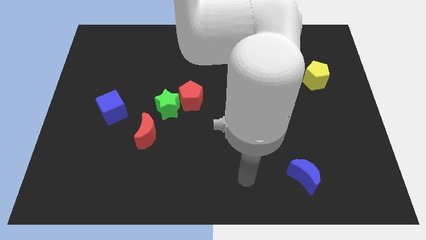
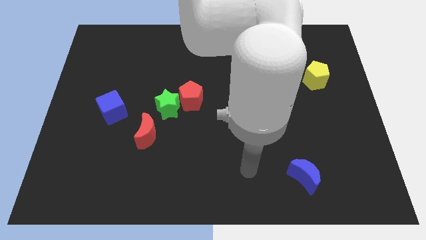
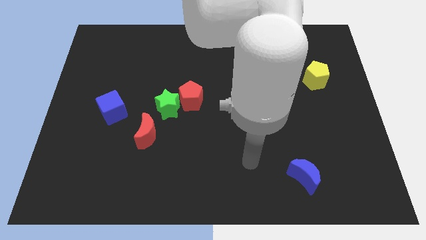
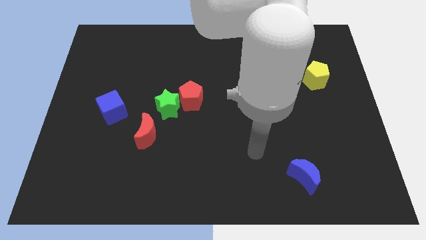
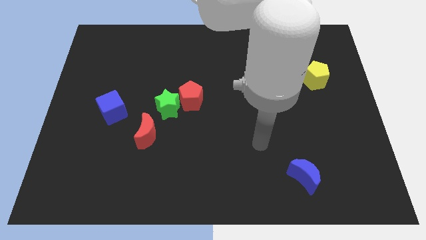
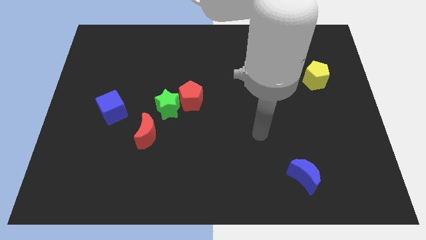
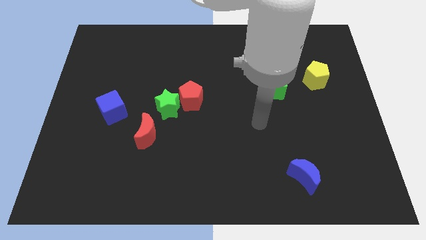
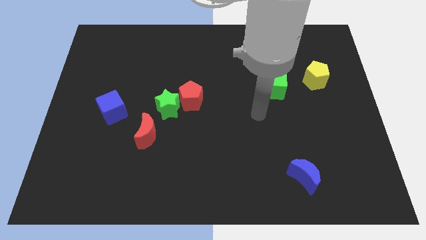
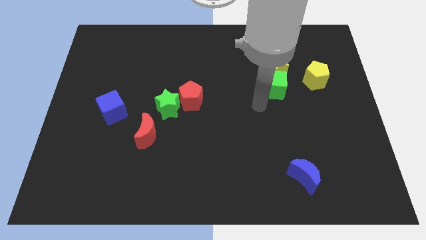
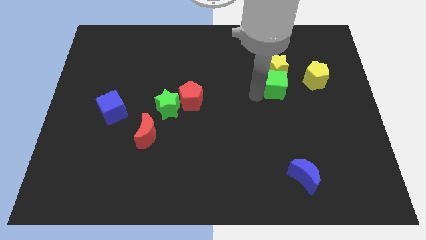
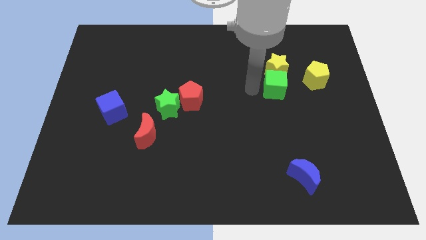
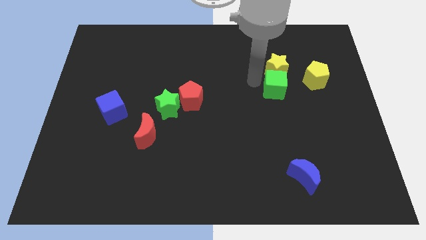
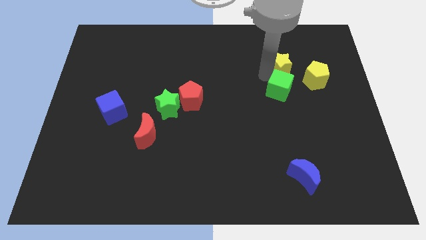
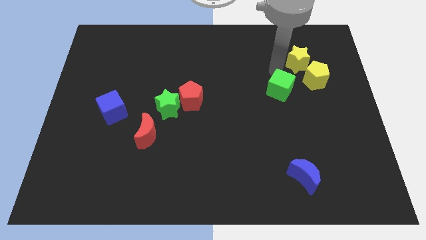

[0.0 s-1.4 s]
pull the green cube apart from the yellow star

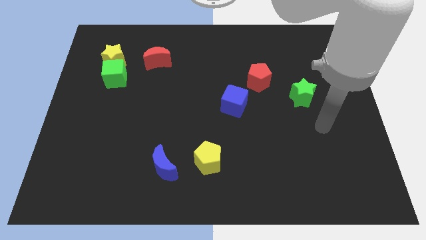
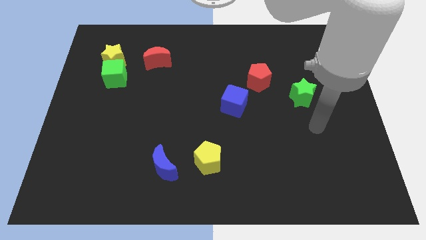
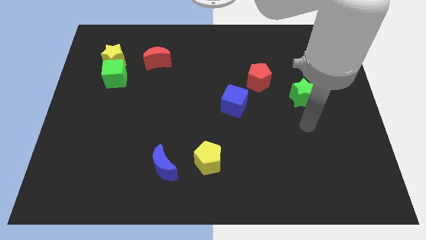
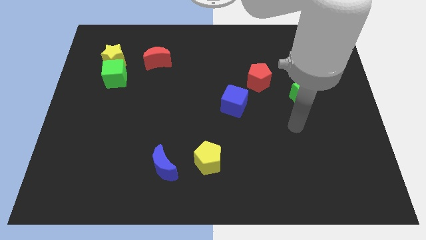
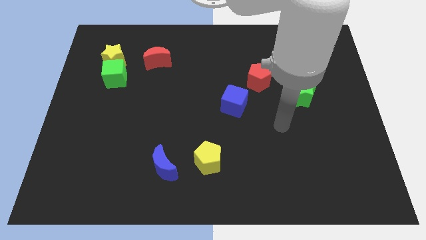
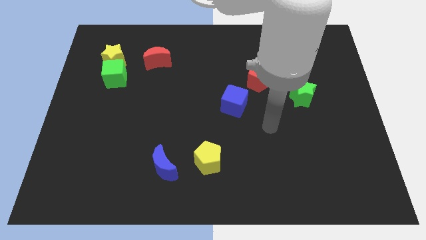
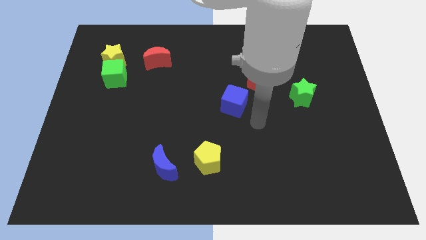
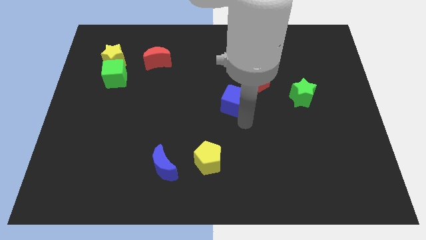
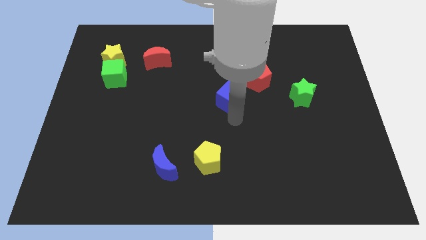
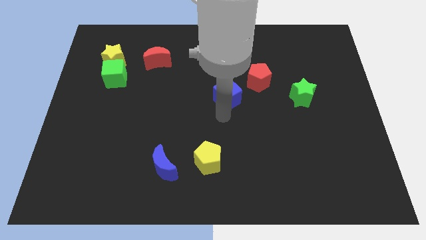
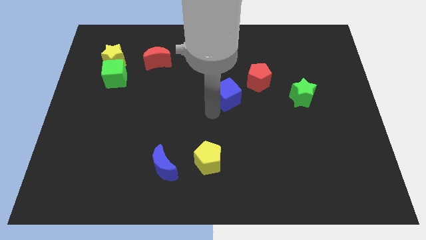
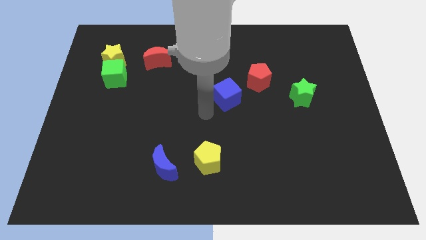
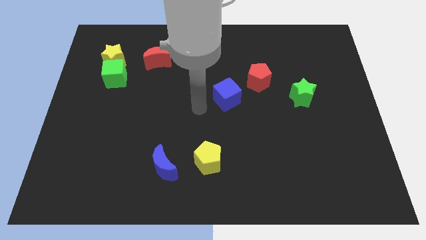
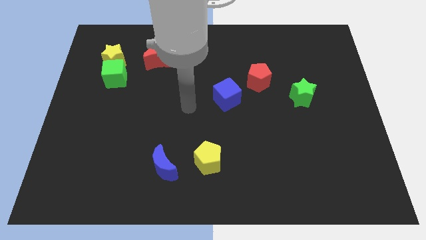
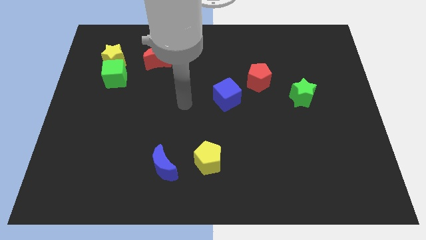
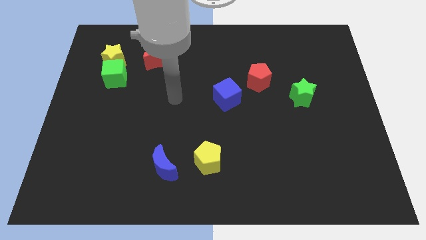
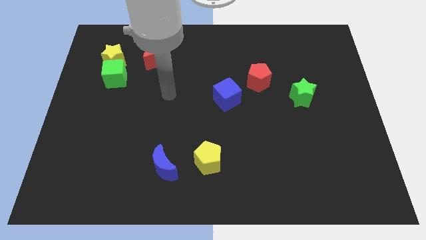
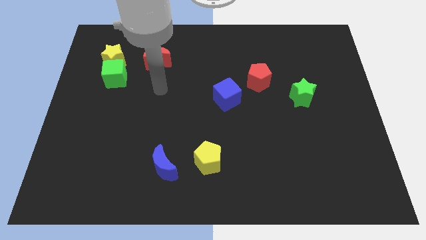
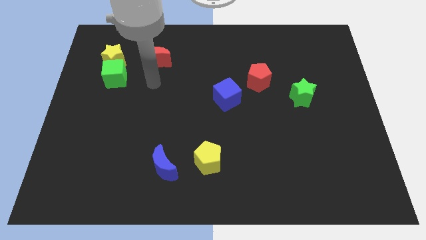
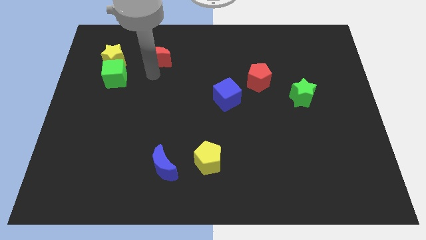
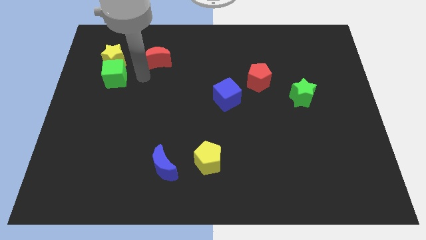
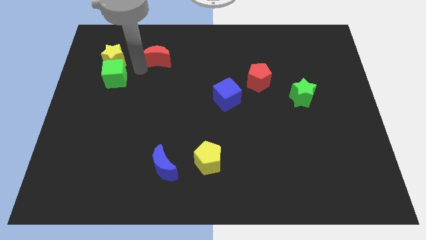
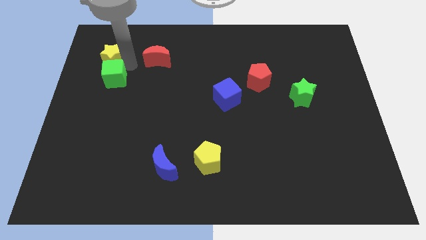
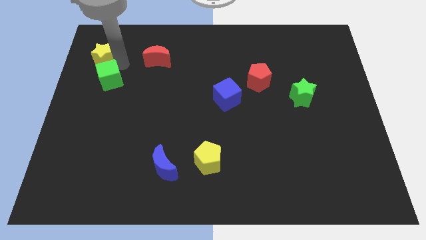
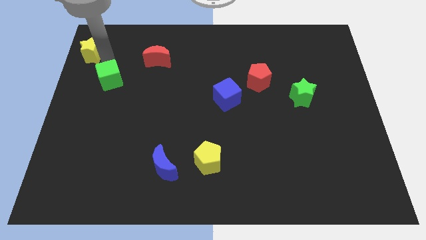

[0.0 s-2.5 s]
separate the green cube from the yellow star

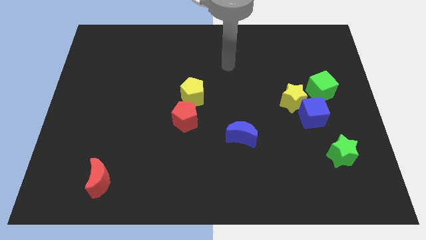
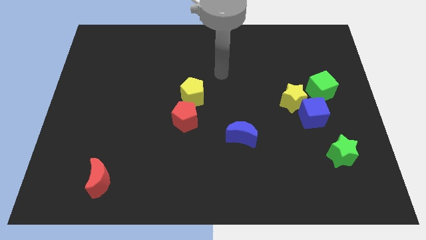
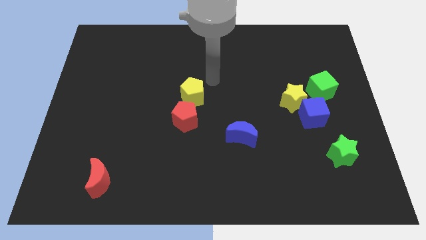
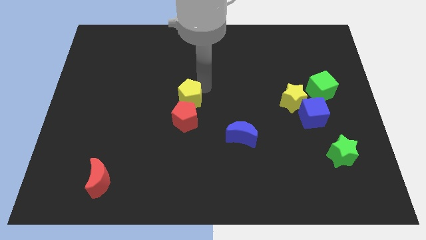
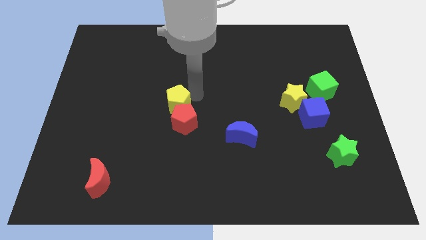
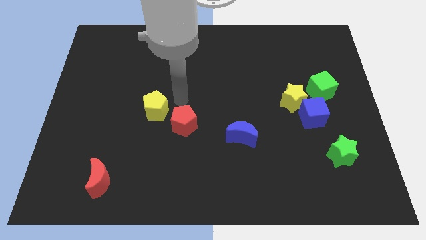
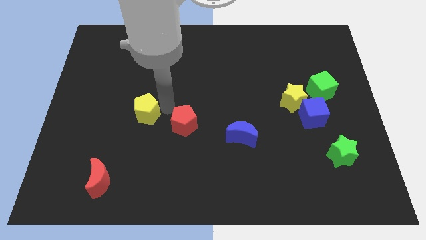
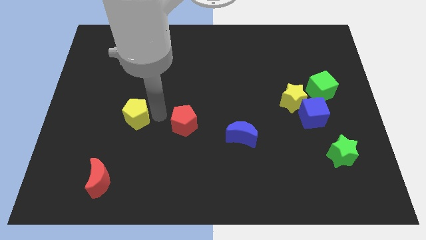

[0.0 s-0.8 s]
separate the red pentagon from the yellow pentagon

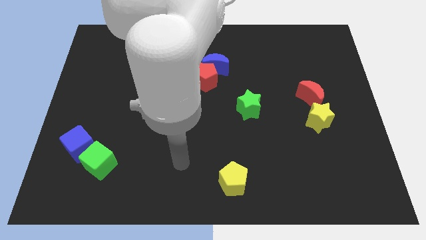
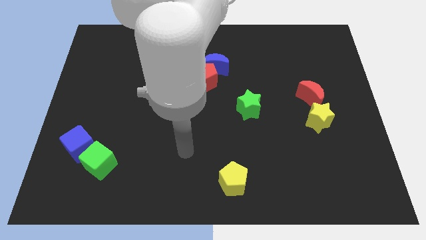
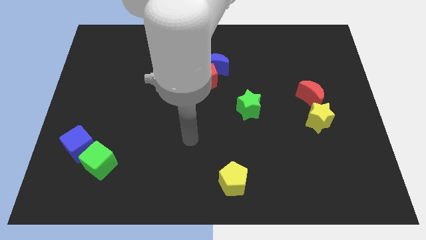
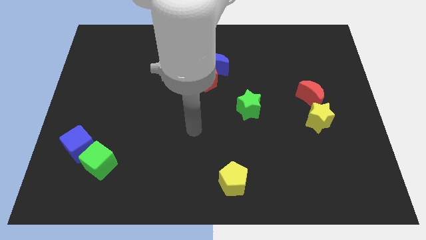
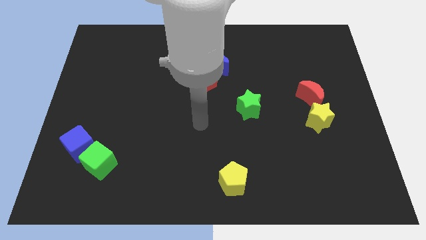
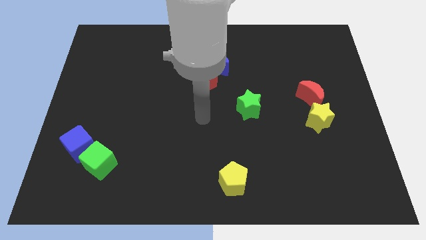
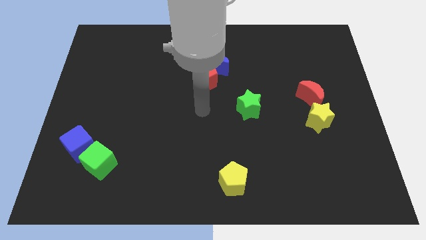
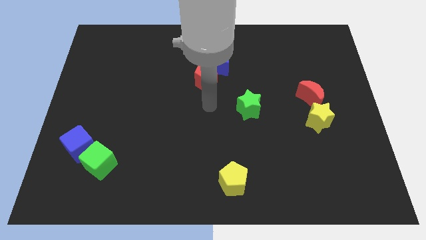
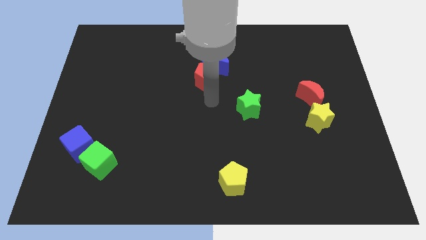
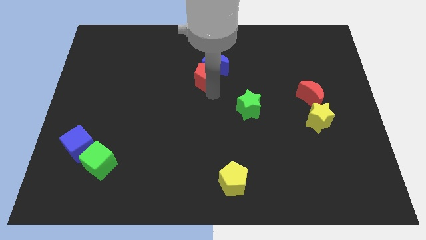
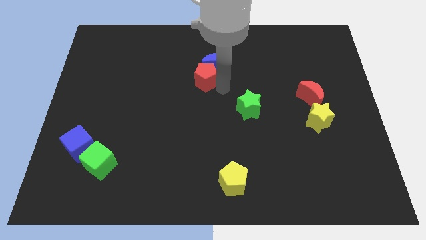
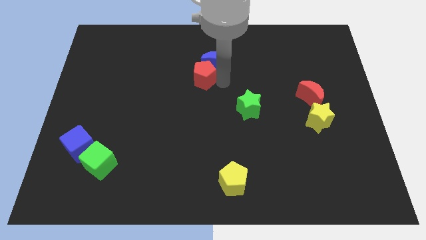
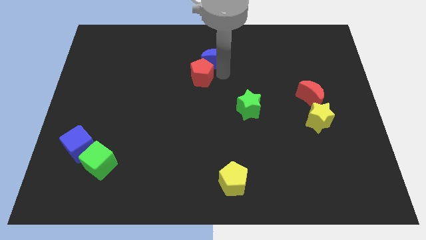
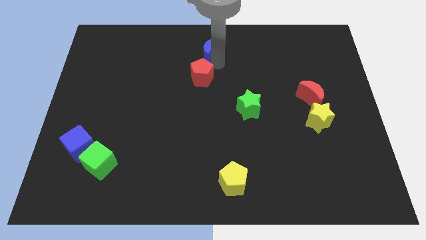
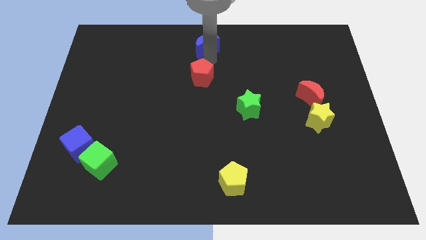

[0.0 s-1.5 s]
pull the red pentagon apart from the blue moon

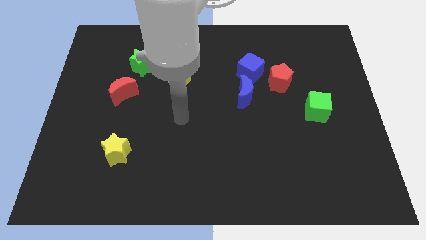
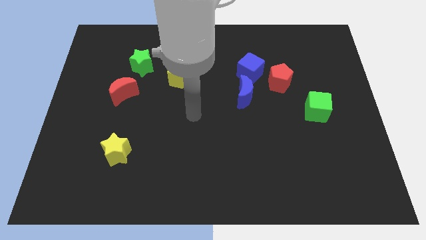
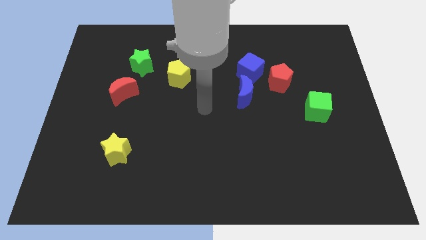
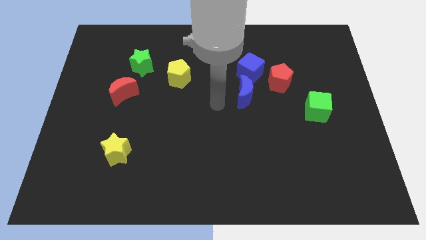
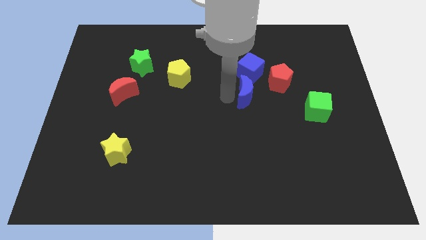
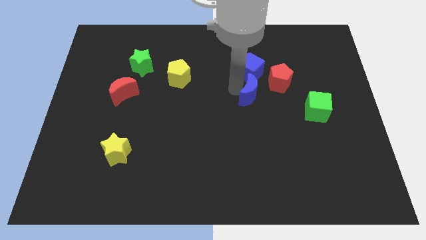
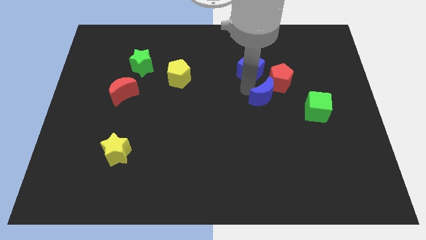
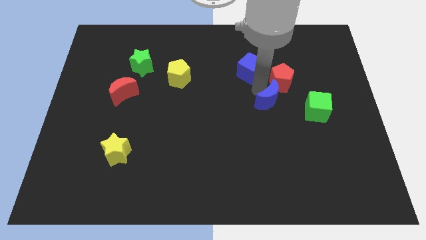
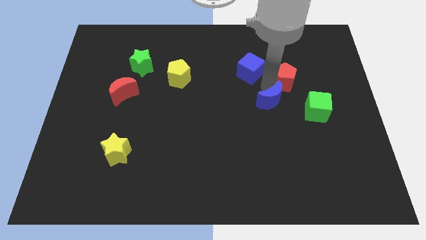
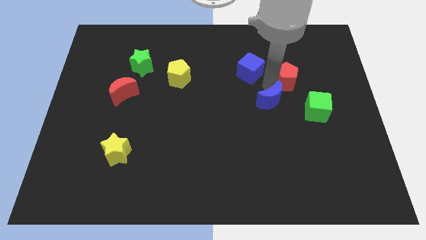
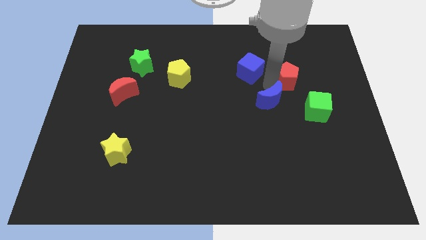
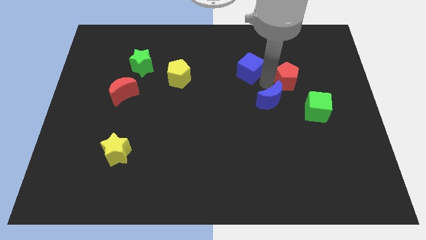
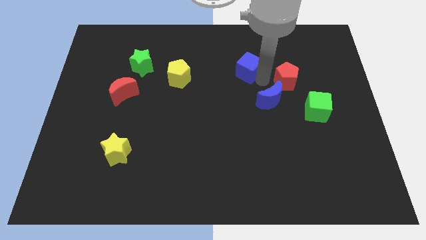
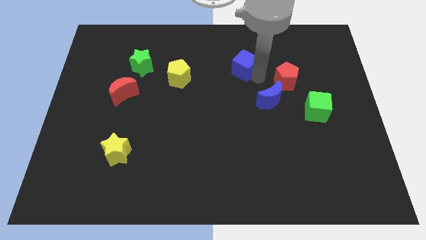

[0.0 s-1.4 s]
pull the blue cube apart from the red pentagon and blue moon

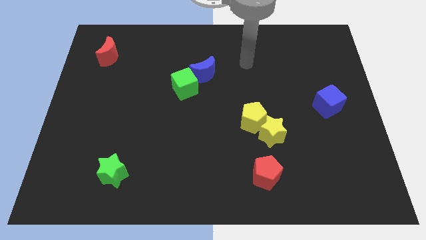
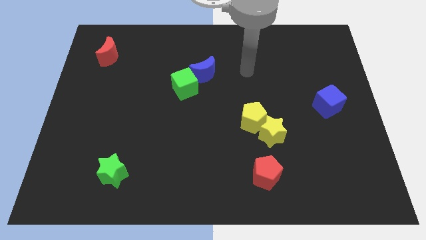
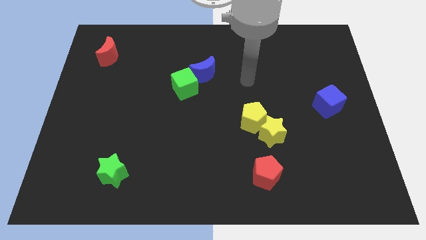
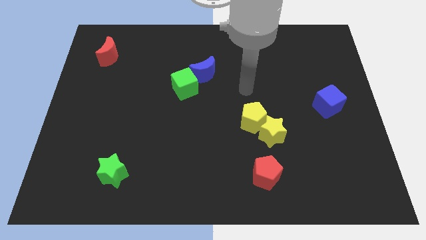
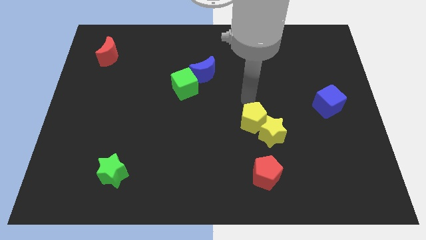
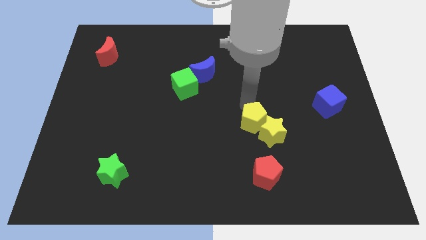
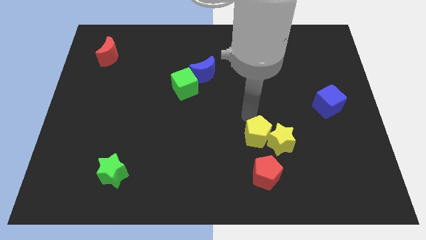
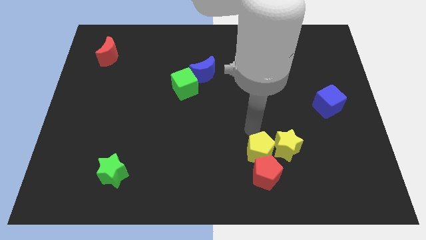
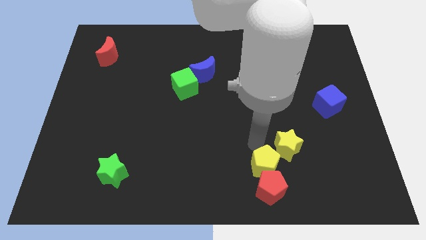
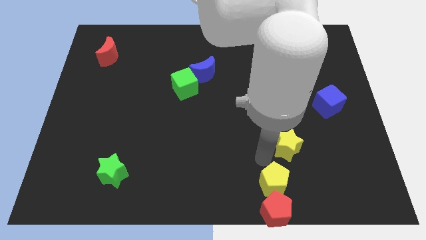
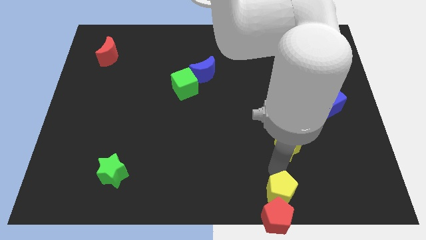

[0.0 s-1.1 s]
move the yellow star away from the yellow pentagon

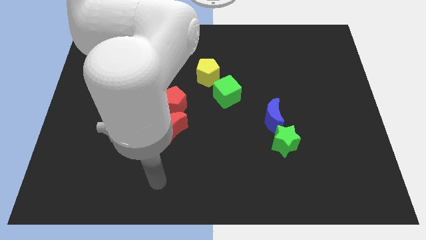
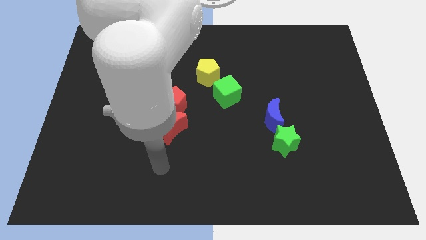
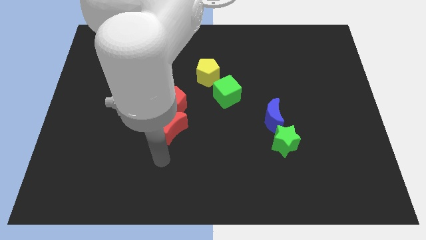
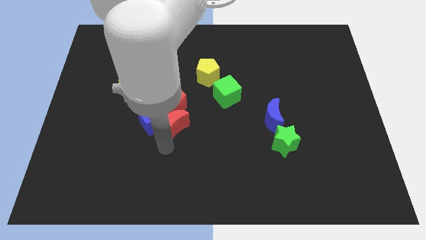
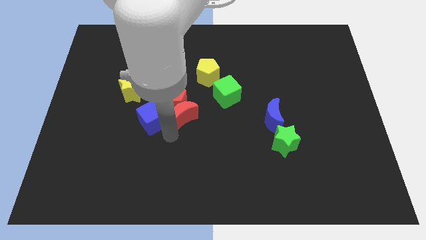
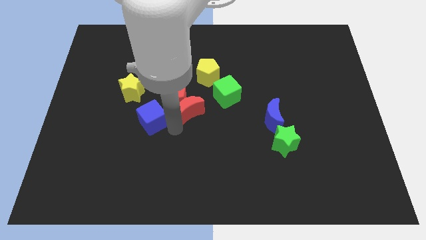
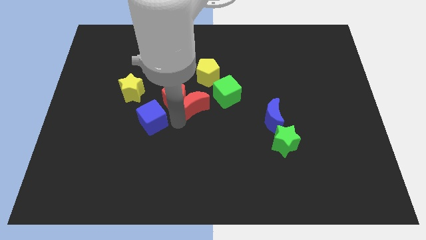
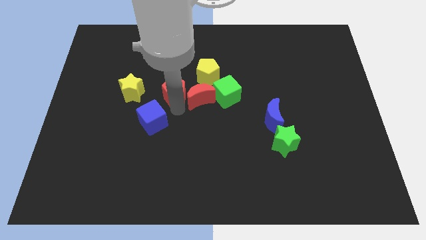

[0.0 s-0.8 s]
move the blue cube away from the red moon and red pentagon
